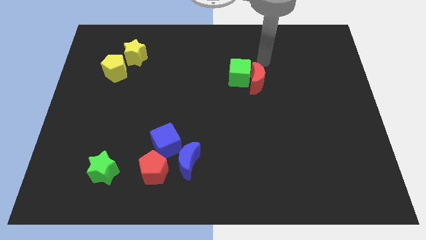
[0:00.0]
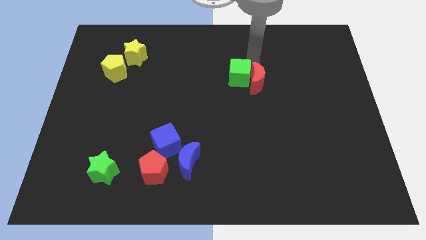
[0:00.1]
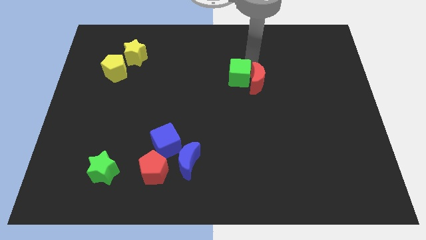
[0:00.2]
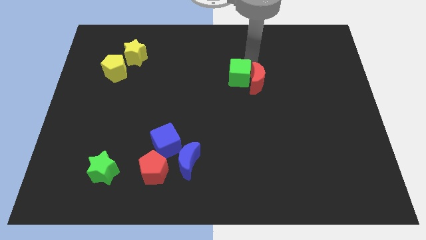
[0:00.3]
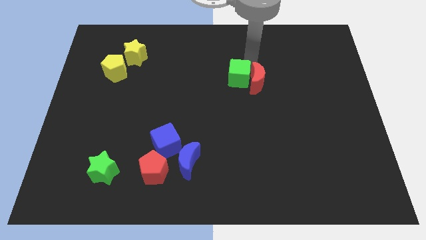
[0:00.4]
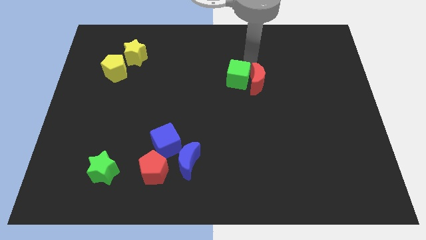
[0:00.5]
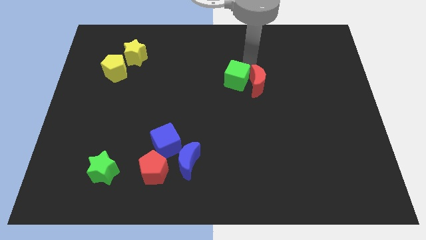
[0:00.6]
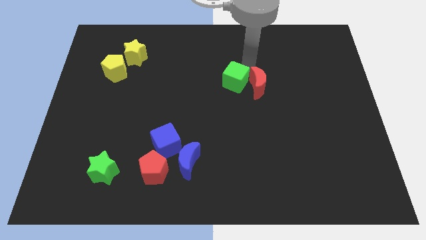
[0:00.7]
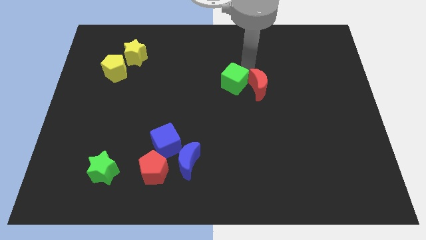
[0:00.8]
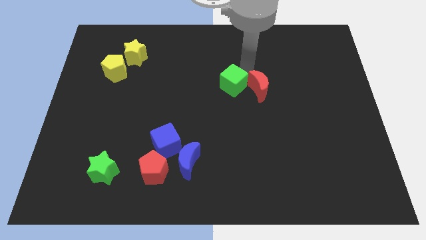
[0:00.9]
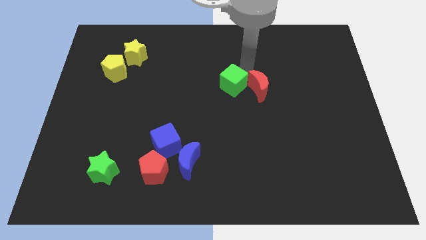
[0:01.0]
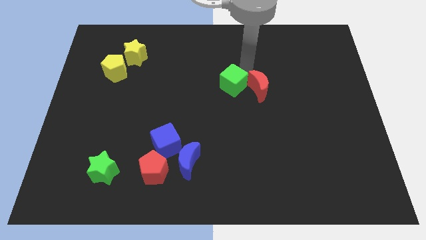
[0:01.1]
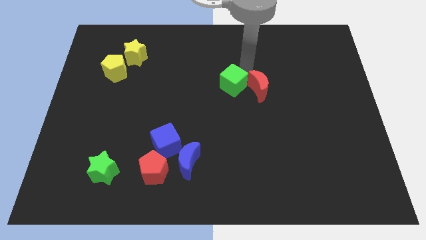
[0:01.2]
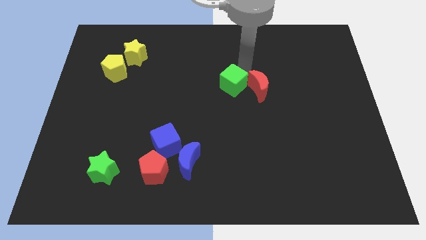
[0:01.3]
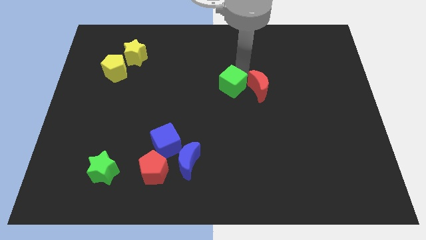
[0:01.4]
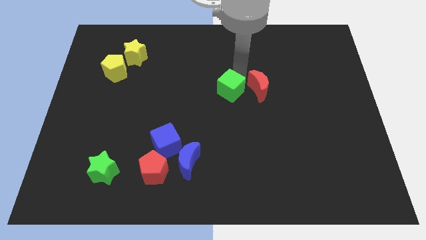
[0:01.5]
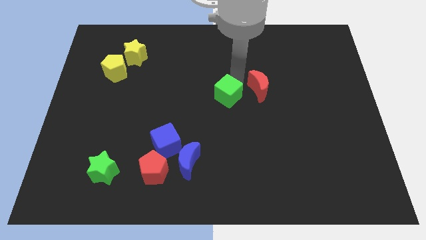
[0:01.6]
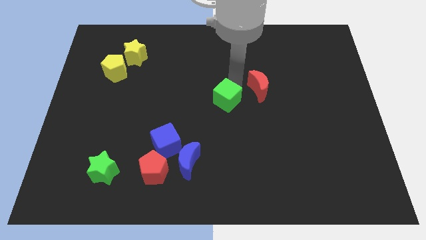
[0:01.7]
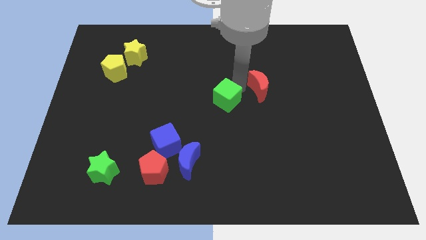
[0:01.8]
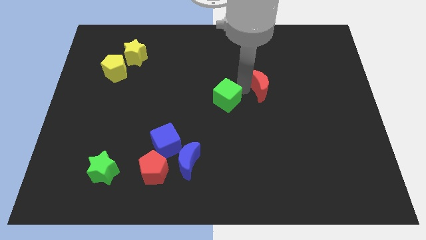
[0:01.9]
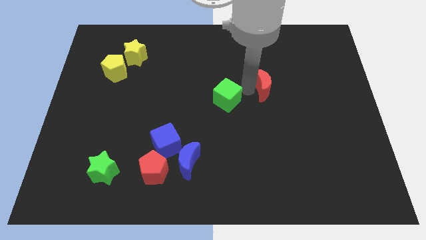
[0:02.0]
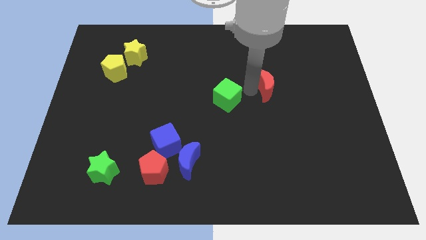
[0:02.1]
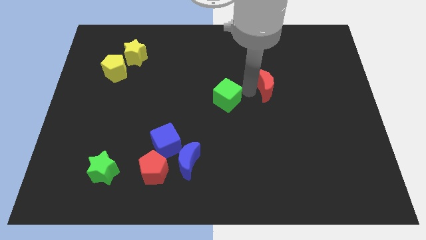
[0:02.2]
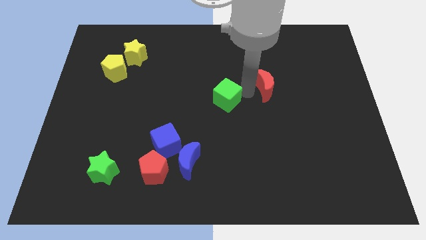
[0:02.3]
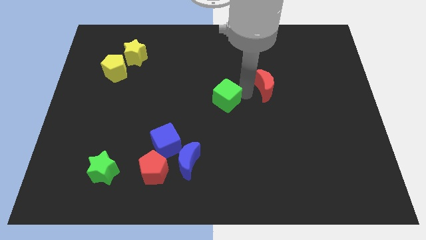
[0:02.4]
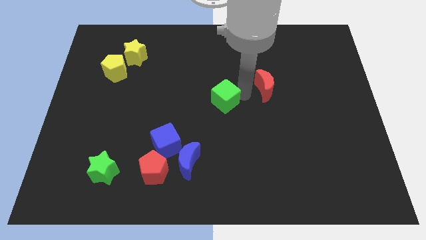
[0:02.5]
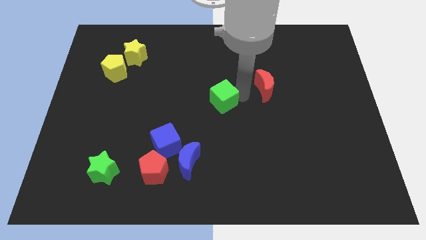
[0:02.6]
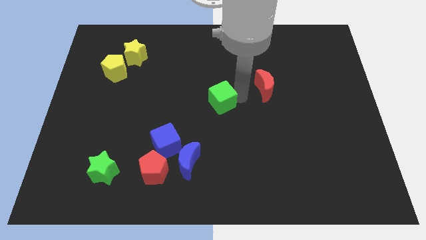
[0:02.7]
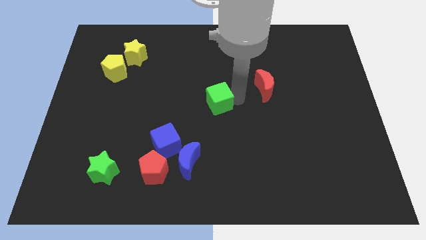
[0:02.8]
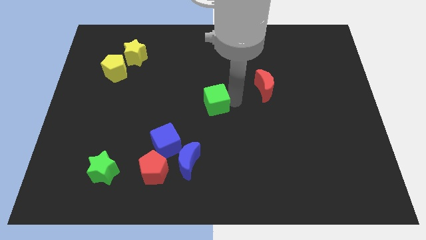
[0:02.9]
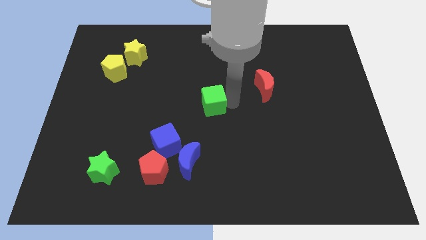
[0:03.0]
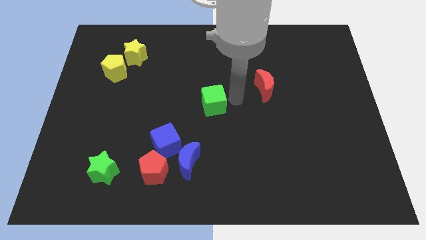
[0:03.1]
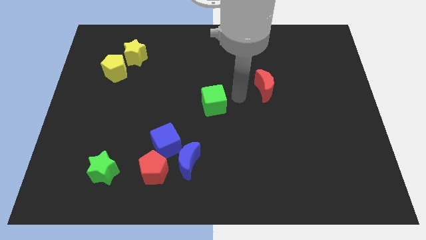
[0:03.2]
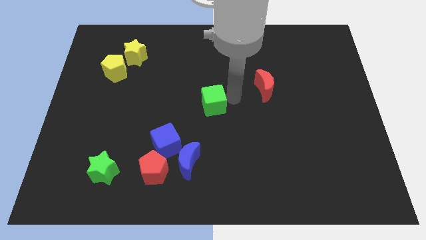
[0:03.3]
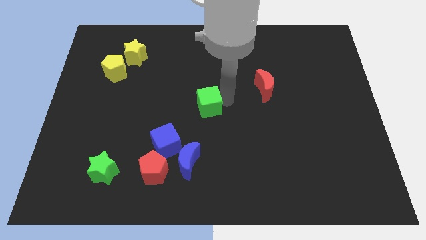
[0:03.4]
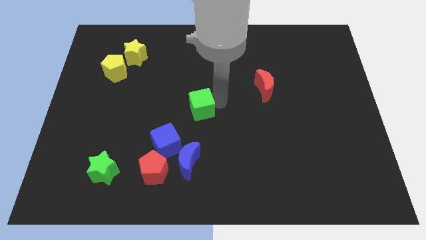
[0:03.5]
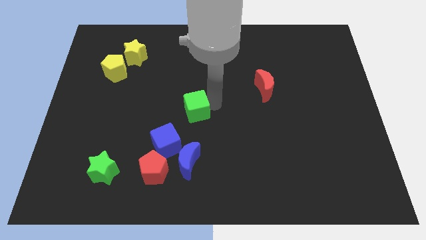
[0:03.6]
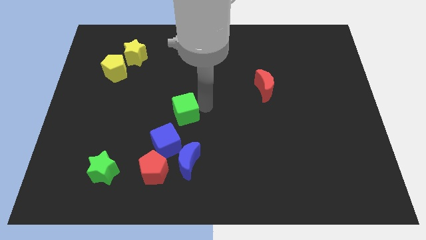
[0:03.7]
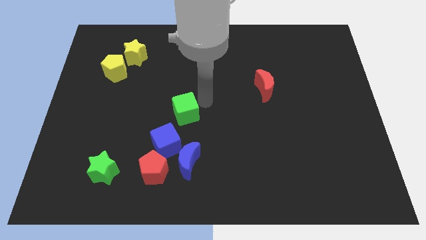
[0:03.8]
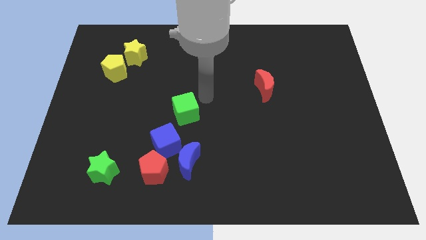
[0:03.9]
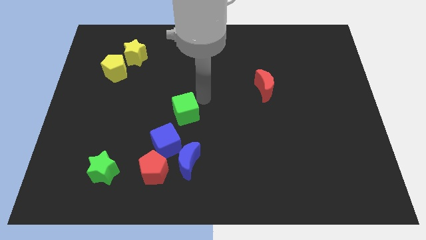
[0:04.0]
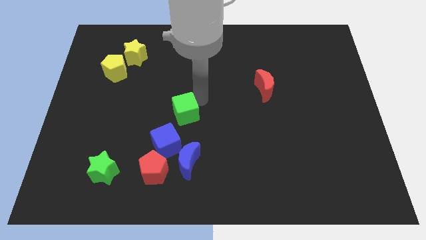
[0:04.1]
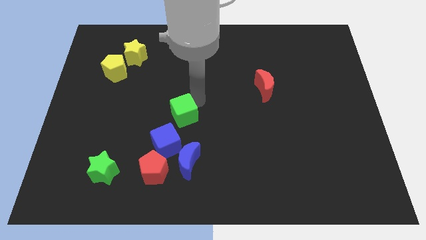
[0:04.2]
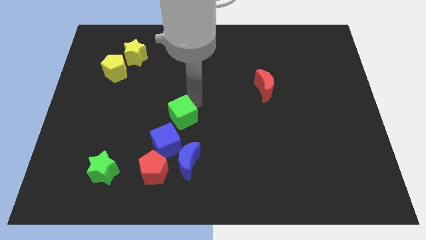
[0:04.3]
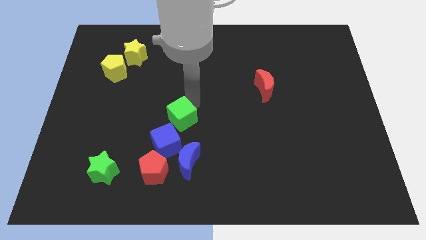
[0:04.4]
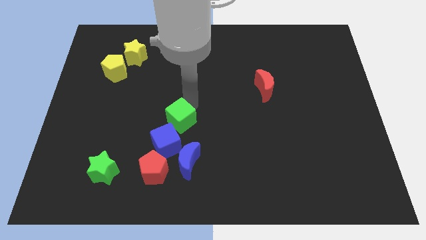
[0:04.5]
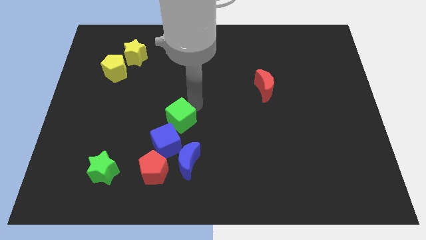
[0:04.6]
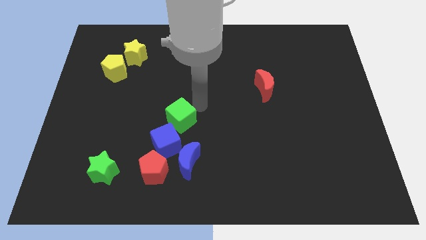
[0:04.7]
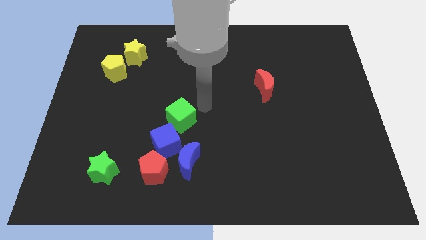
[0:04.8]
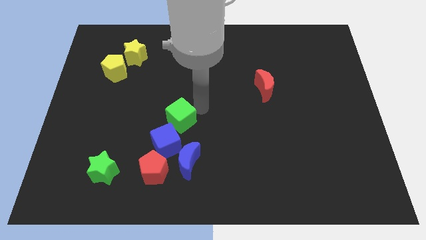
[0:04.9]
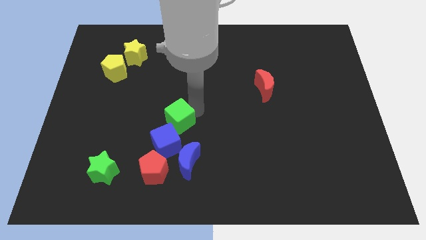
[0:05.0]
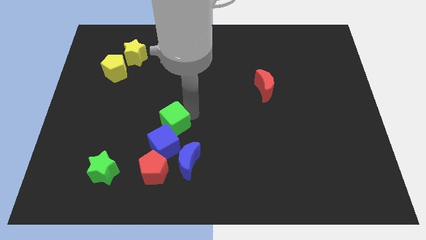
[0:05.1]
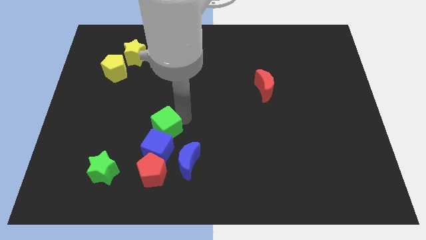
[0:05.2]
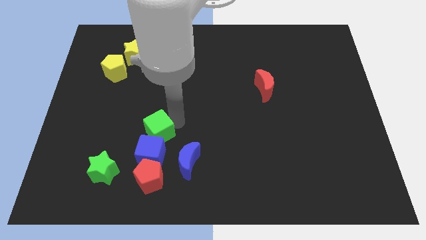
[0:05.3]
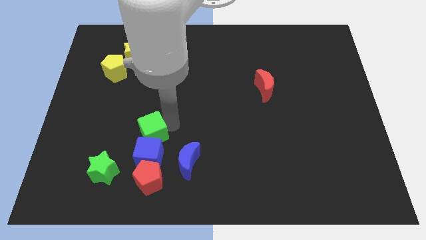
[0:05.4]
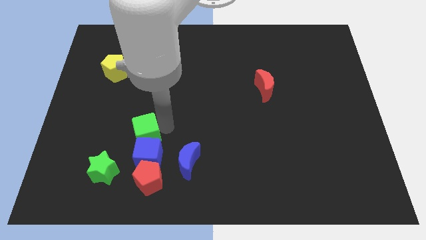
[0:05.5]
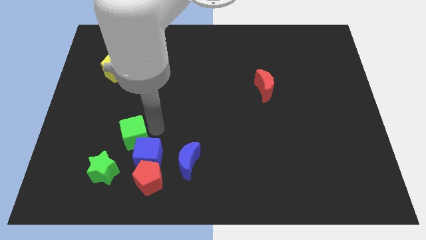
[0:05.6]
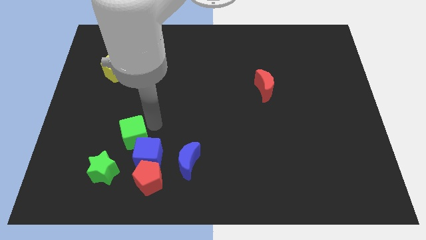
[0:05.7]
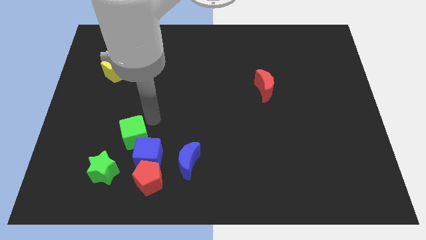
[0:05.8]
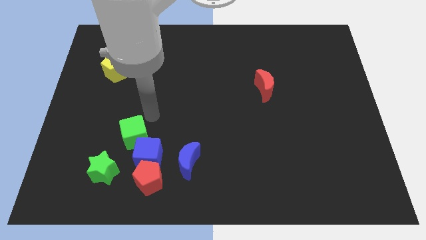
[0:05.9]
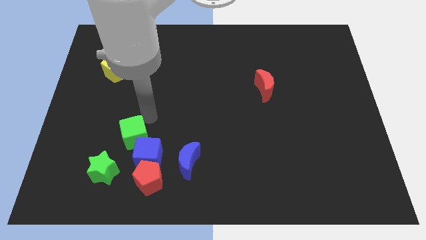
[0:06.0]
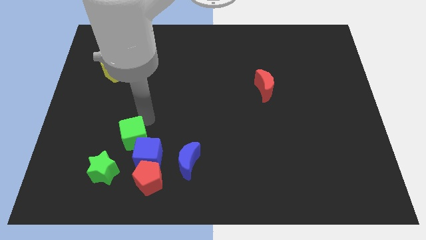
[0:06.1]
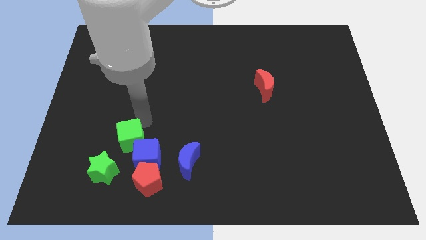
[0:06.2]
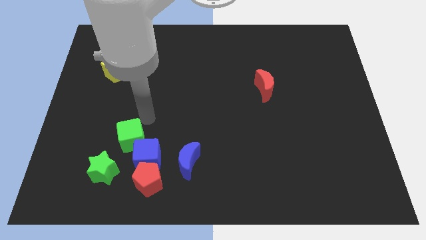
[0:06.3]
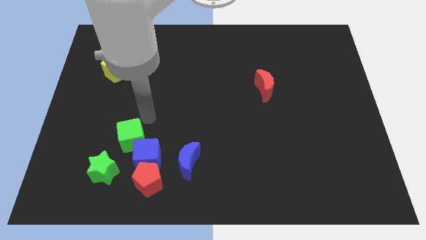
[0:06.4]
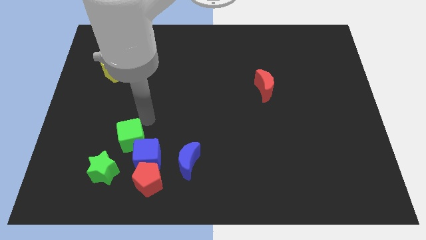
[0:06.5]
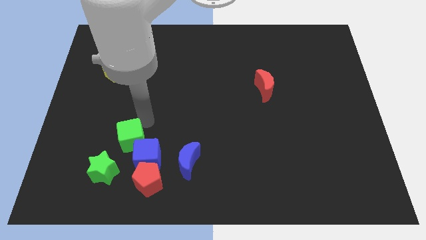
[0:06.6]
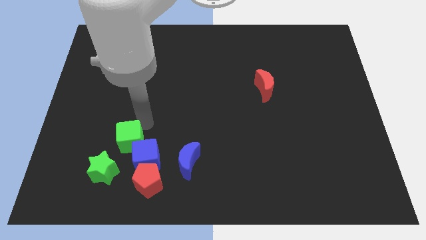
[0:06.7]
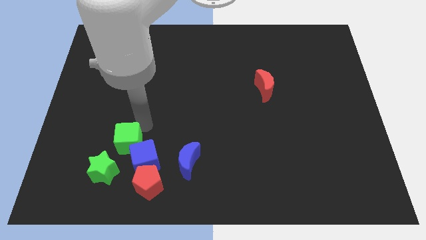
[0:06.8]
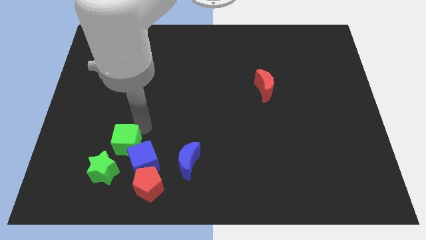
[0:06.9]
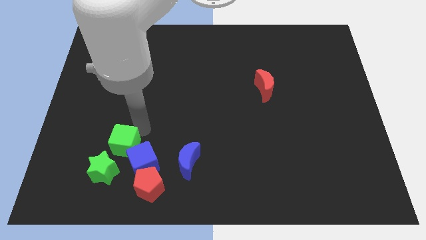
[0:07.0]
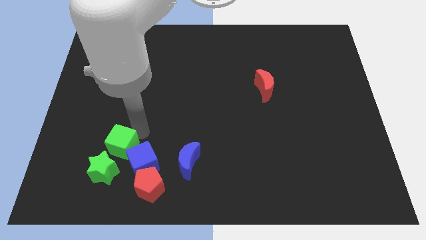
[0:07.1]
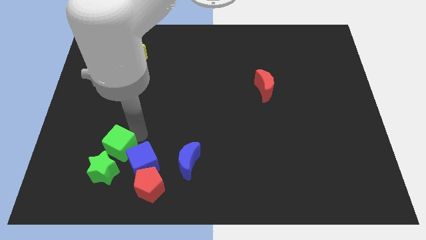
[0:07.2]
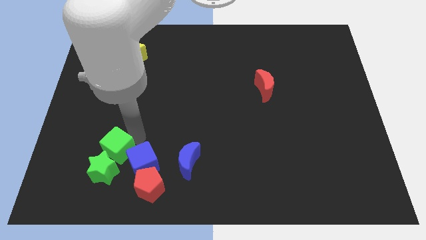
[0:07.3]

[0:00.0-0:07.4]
put the green cube next to the green star
